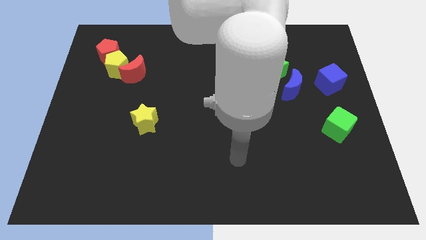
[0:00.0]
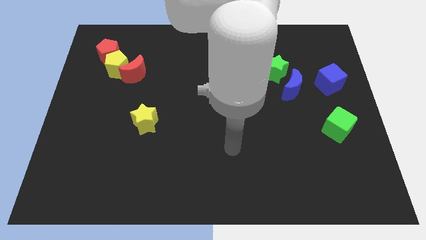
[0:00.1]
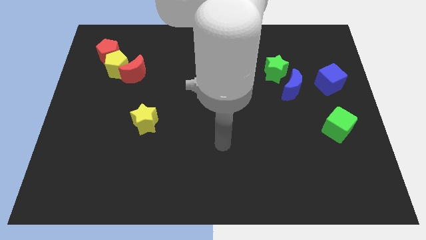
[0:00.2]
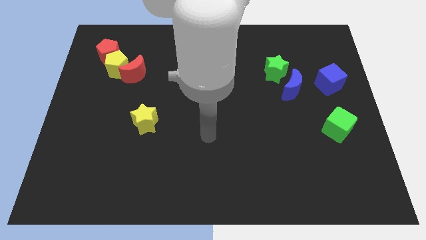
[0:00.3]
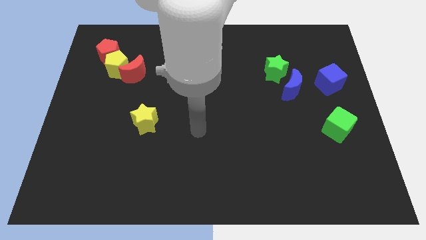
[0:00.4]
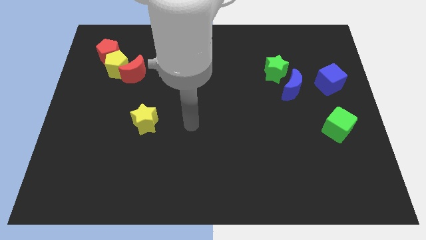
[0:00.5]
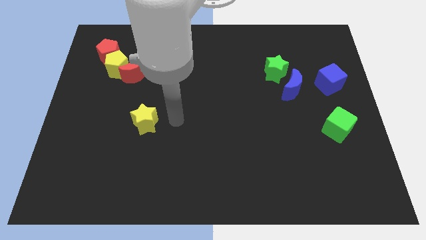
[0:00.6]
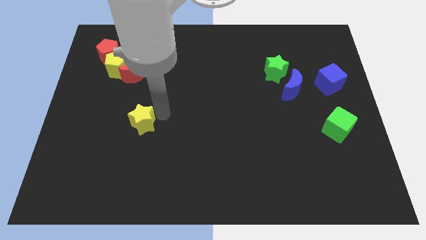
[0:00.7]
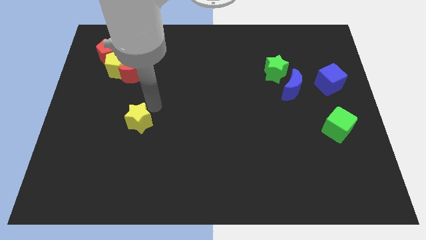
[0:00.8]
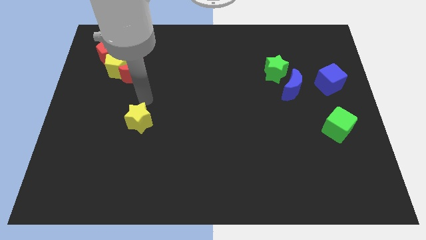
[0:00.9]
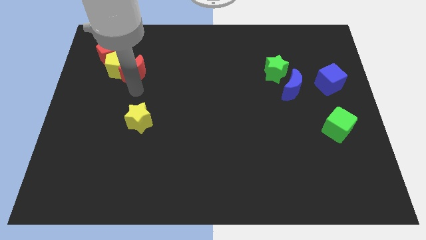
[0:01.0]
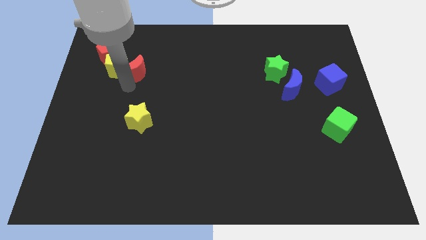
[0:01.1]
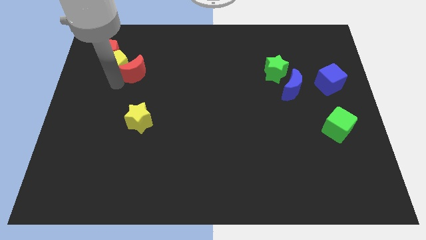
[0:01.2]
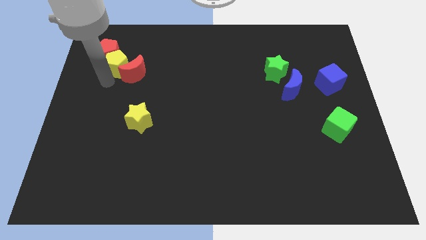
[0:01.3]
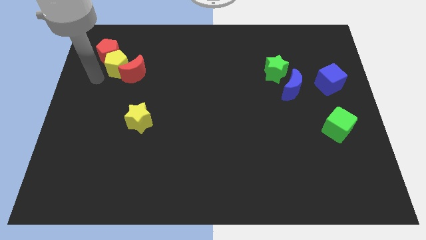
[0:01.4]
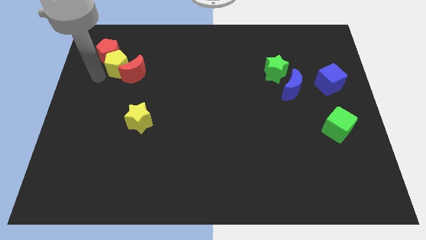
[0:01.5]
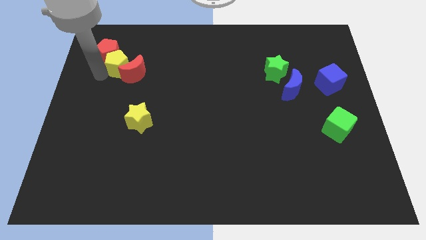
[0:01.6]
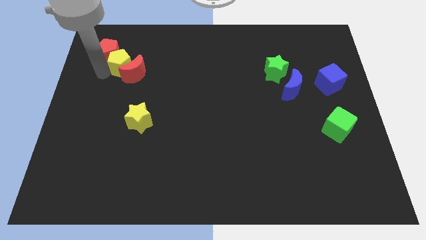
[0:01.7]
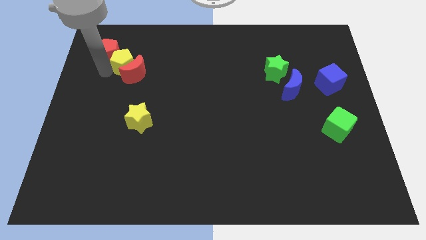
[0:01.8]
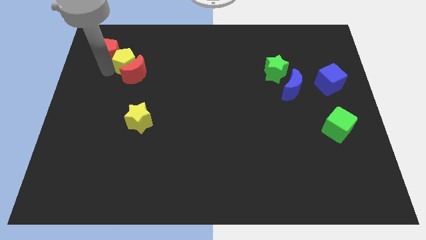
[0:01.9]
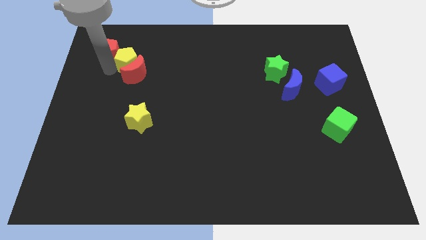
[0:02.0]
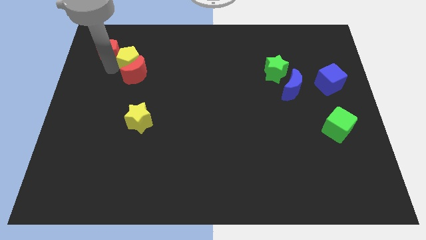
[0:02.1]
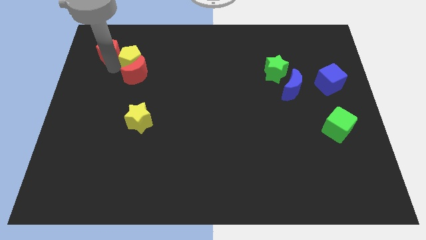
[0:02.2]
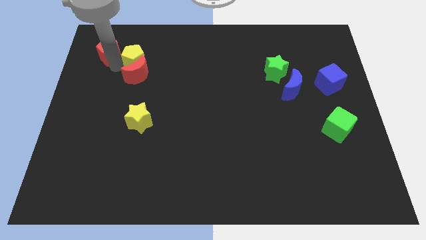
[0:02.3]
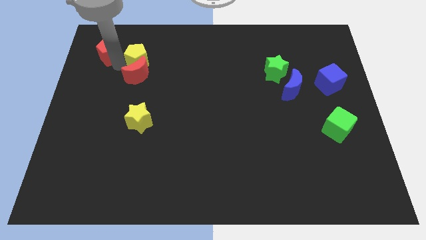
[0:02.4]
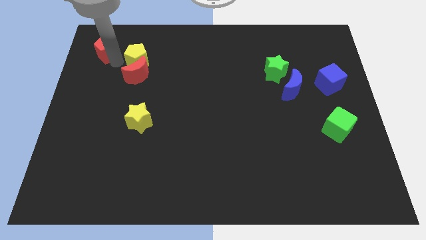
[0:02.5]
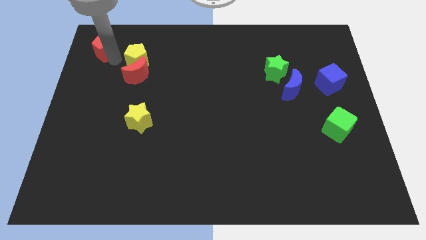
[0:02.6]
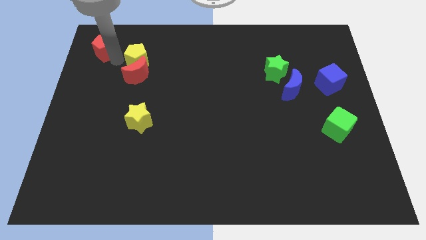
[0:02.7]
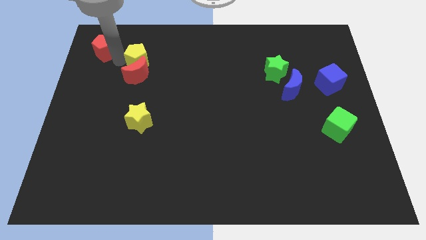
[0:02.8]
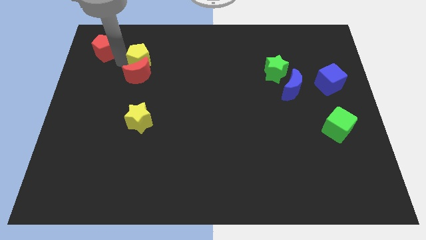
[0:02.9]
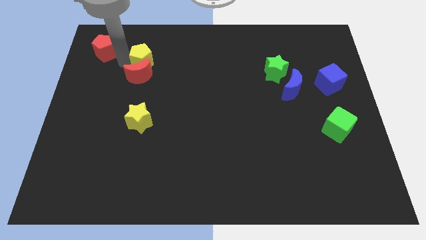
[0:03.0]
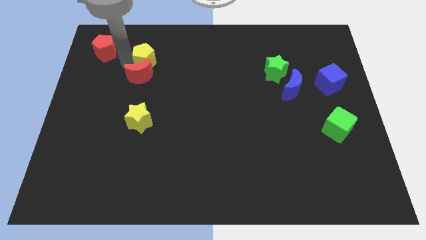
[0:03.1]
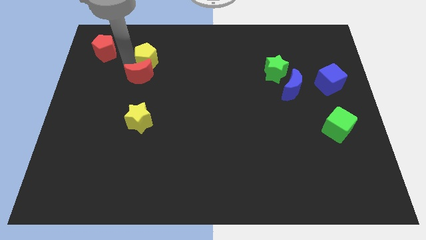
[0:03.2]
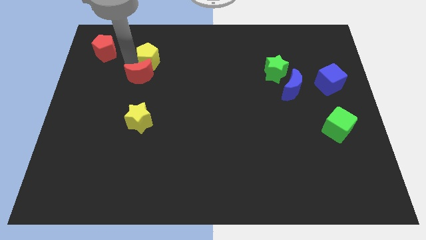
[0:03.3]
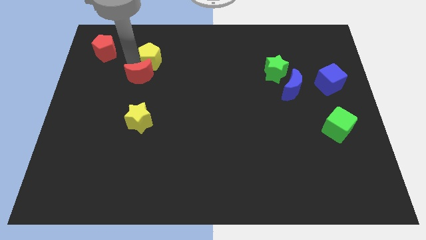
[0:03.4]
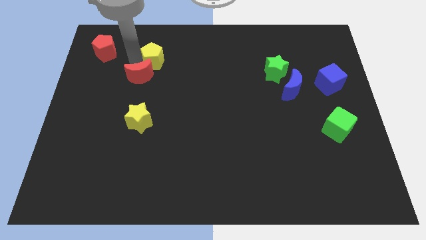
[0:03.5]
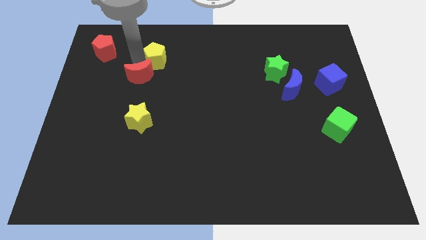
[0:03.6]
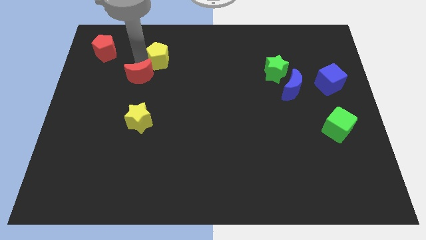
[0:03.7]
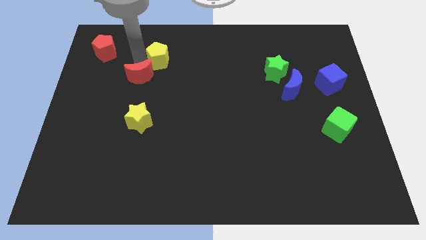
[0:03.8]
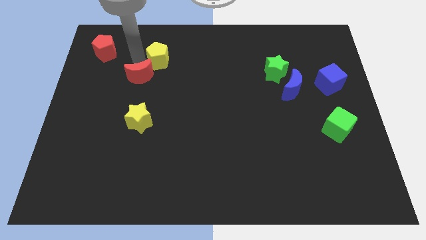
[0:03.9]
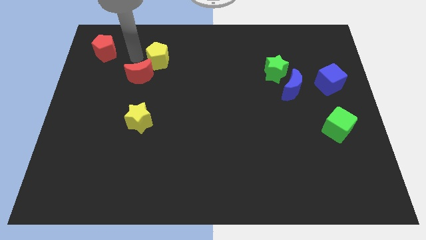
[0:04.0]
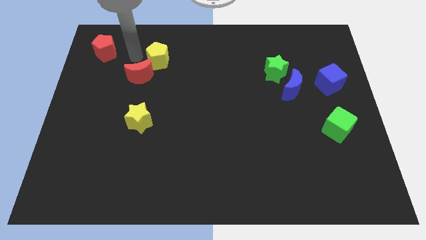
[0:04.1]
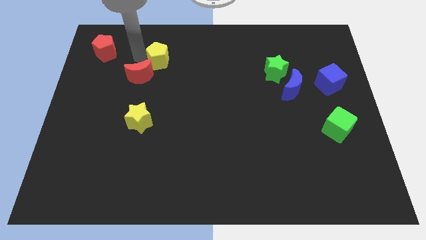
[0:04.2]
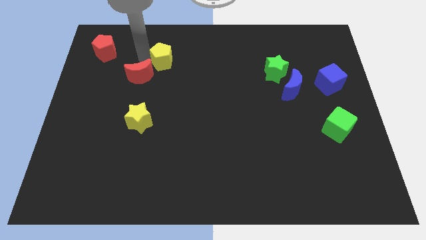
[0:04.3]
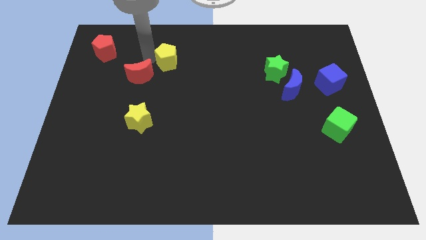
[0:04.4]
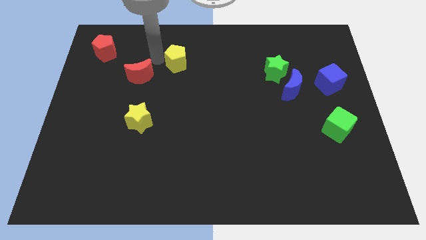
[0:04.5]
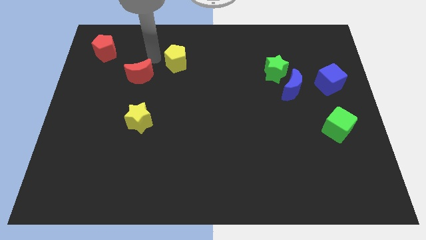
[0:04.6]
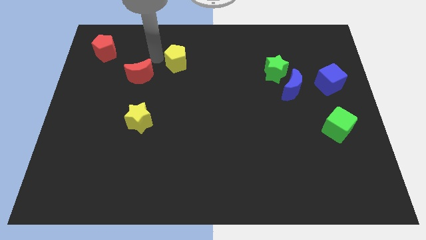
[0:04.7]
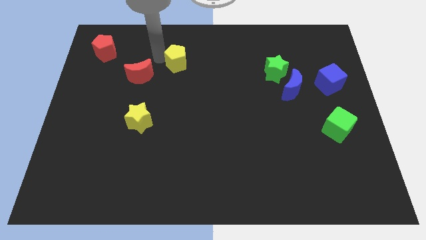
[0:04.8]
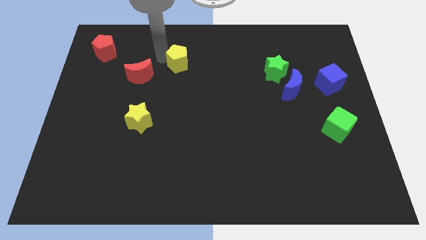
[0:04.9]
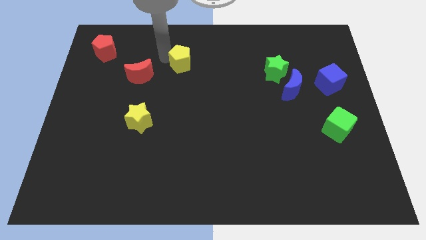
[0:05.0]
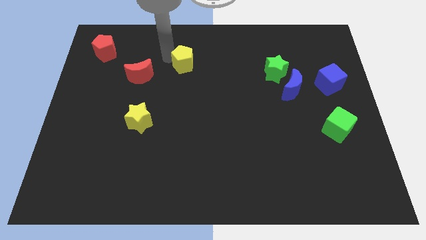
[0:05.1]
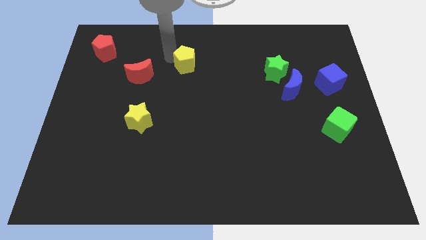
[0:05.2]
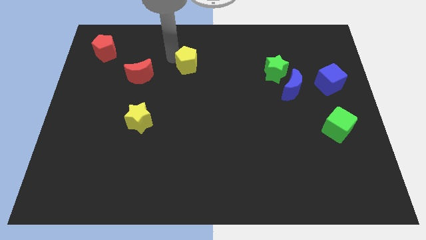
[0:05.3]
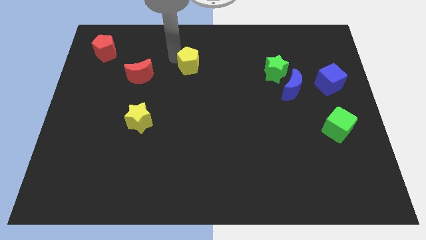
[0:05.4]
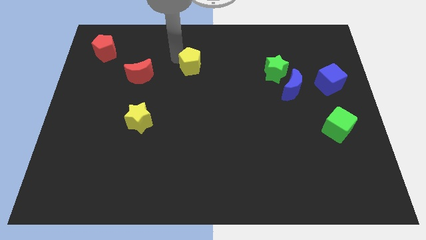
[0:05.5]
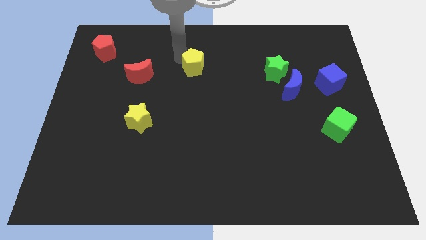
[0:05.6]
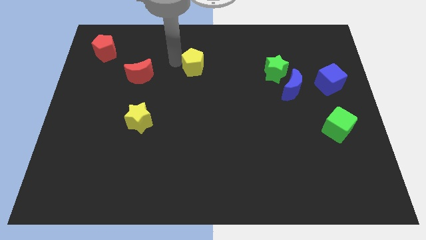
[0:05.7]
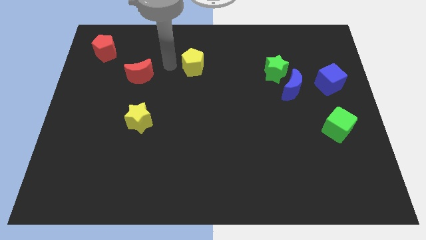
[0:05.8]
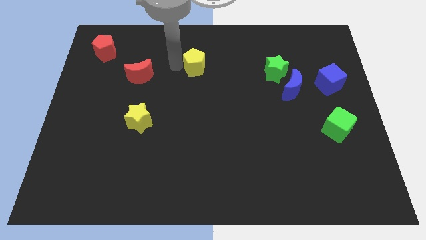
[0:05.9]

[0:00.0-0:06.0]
move the yellow pentagon to the right

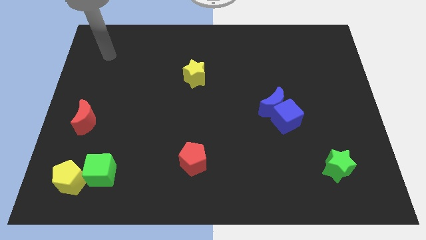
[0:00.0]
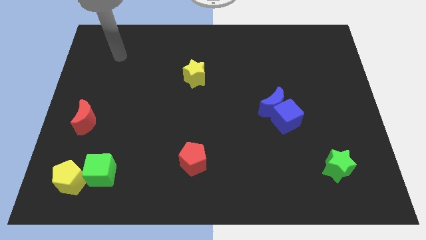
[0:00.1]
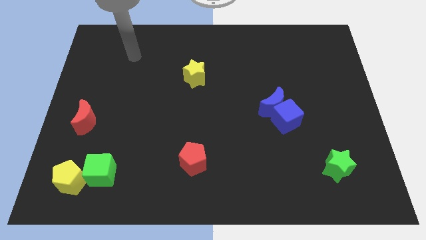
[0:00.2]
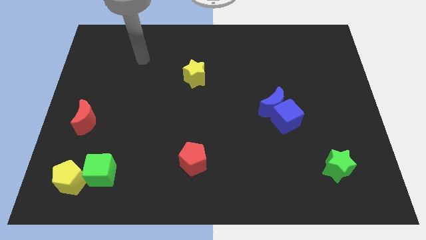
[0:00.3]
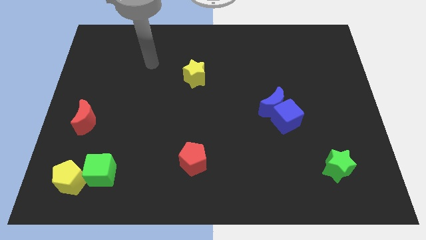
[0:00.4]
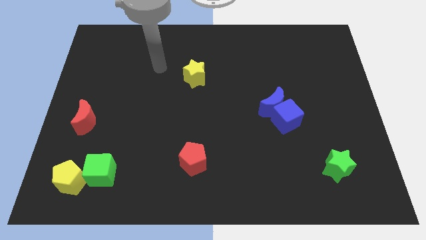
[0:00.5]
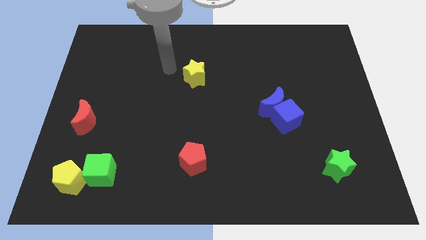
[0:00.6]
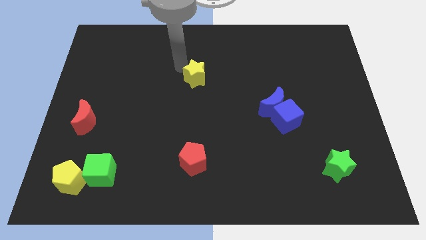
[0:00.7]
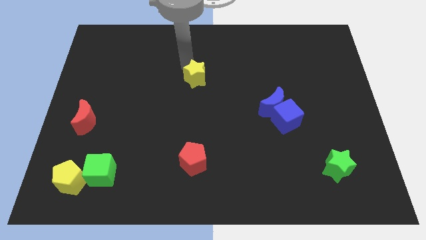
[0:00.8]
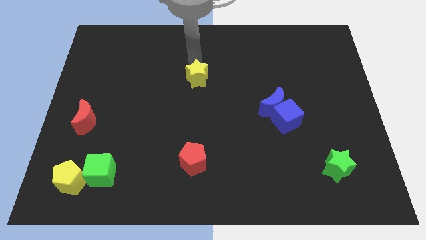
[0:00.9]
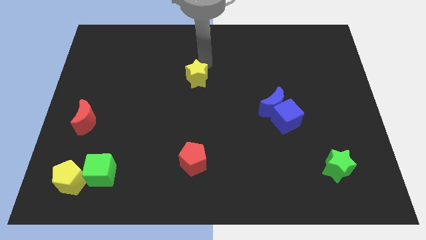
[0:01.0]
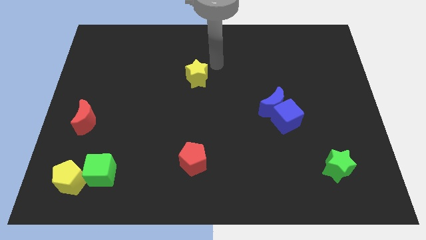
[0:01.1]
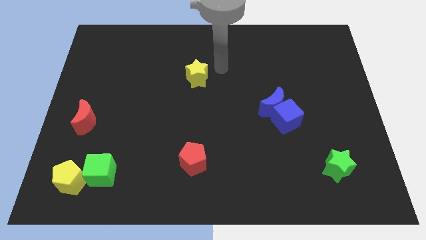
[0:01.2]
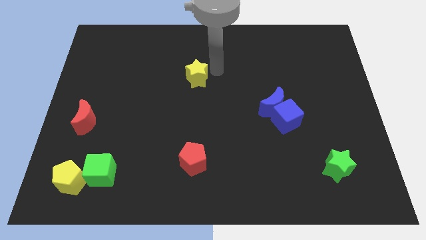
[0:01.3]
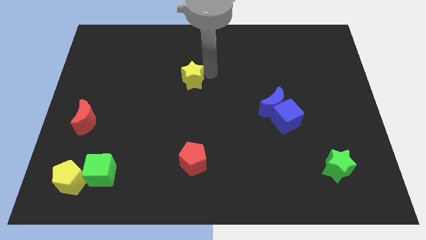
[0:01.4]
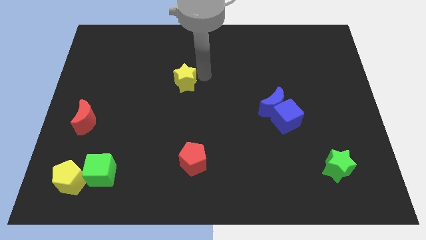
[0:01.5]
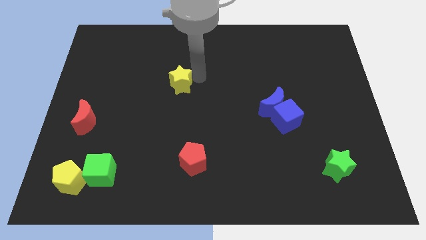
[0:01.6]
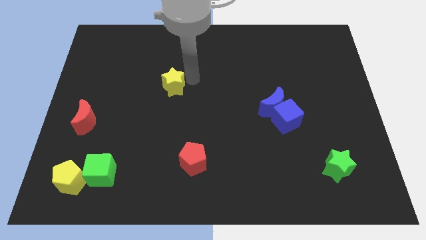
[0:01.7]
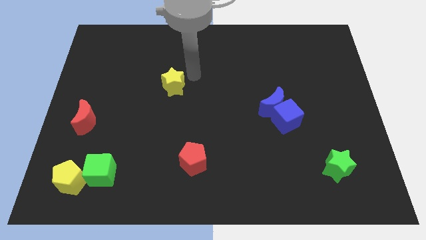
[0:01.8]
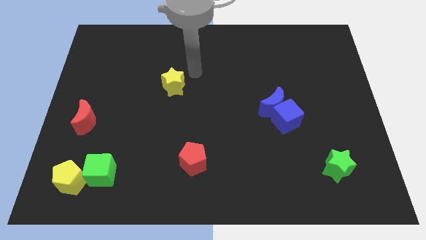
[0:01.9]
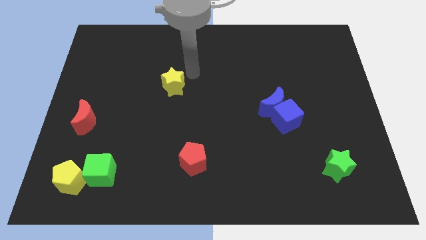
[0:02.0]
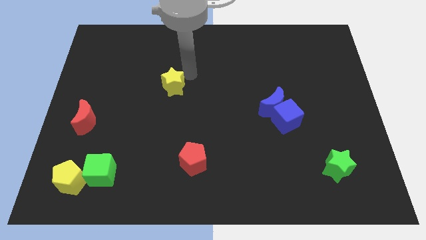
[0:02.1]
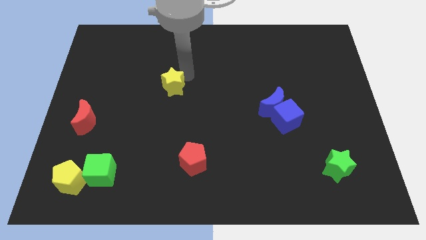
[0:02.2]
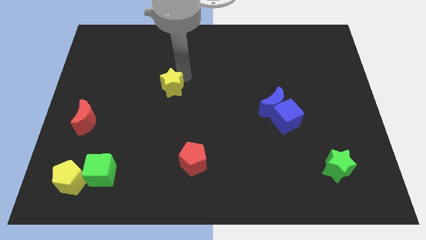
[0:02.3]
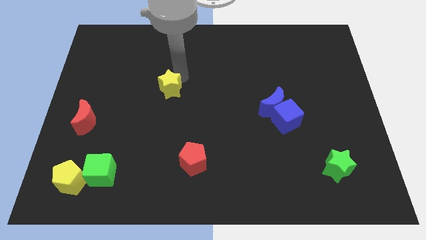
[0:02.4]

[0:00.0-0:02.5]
slide the yellow star slightly downwards and left diagonally
